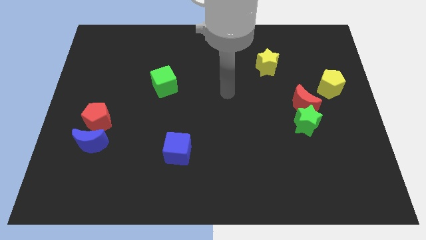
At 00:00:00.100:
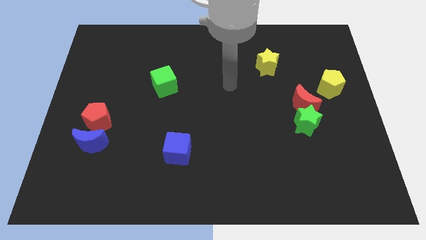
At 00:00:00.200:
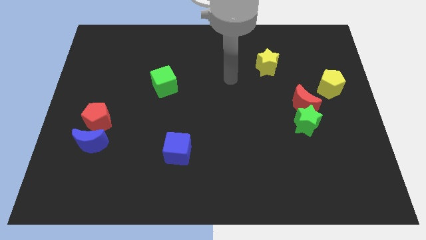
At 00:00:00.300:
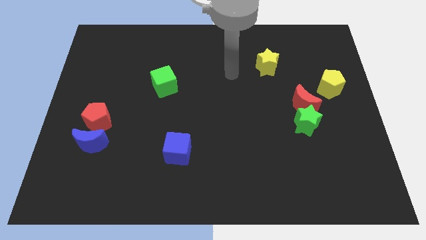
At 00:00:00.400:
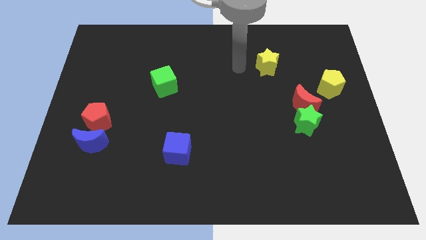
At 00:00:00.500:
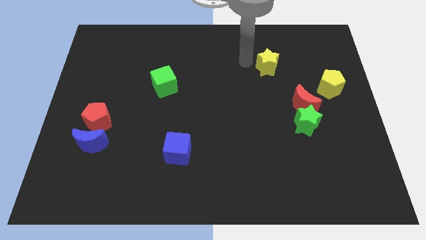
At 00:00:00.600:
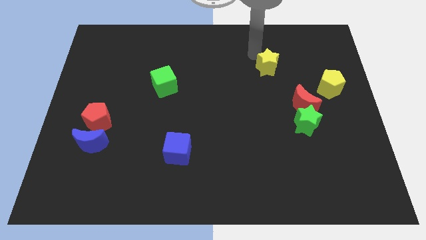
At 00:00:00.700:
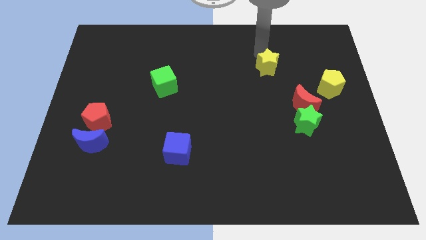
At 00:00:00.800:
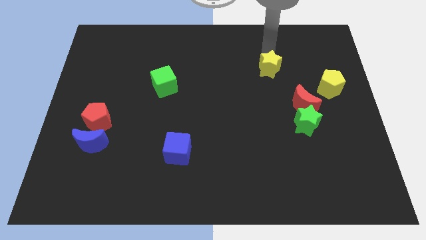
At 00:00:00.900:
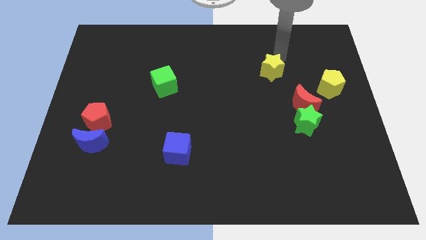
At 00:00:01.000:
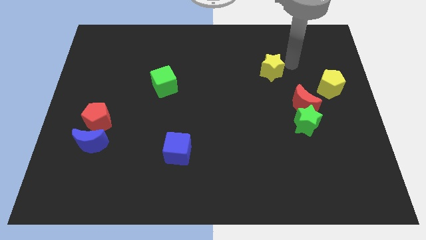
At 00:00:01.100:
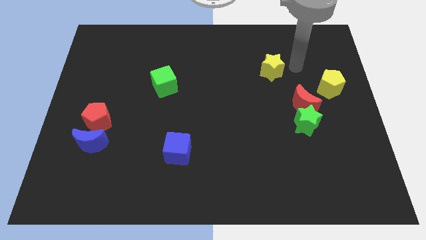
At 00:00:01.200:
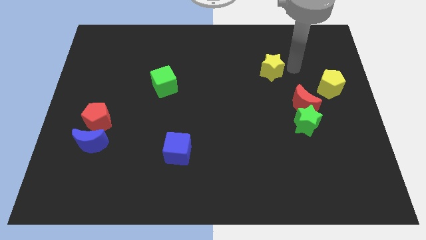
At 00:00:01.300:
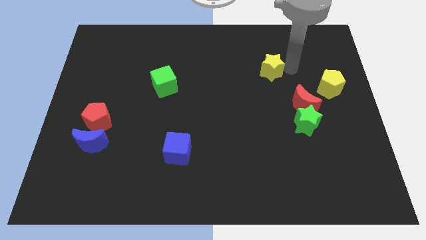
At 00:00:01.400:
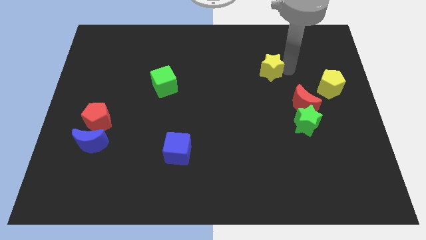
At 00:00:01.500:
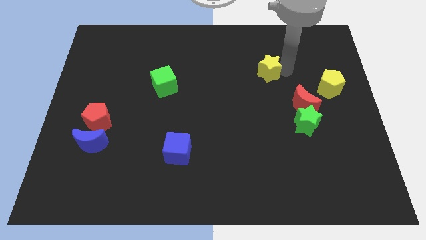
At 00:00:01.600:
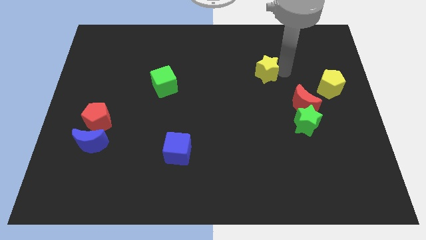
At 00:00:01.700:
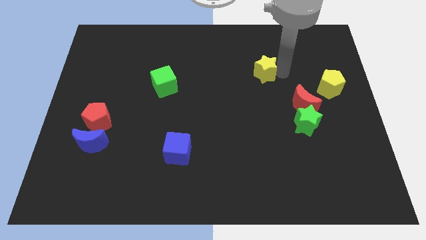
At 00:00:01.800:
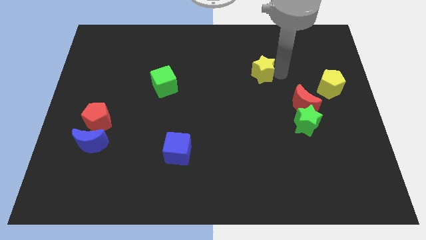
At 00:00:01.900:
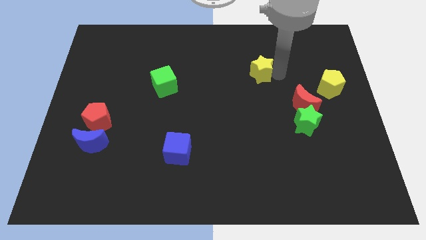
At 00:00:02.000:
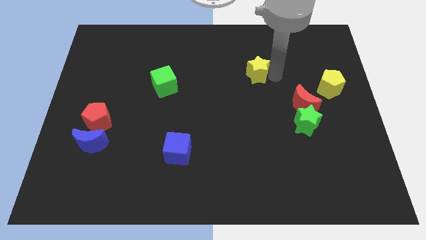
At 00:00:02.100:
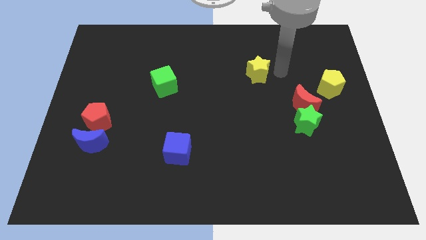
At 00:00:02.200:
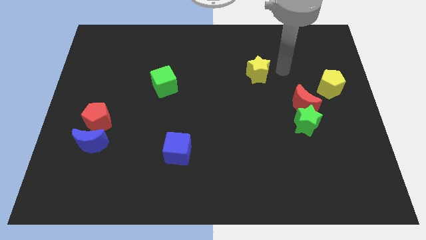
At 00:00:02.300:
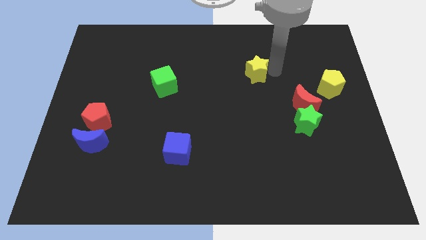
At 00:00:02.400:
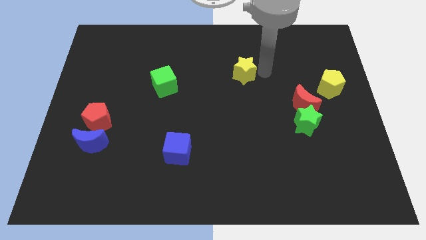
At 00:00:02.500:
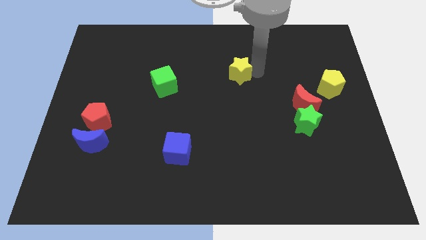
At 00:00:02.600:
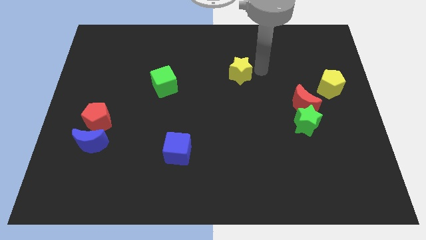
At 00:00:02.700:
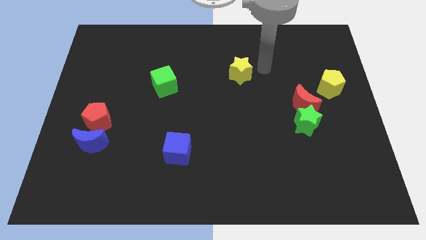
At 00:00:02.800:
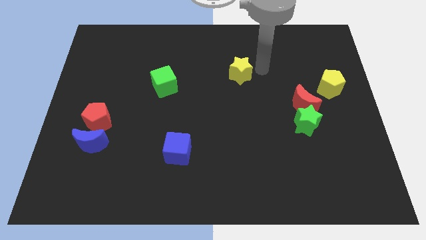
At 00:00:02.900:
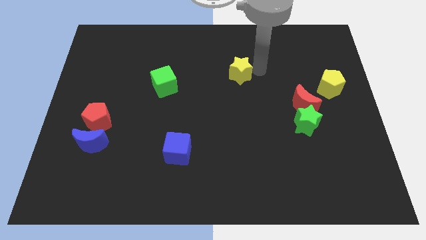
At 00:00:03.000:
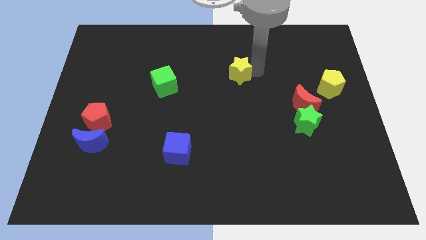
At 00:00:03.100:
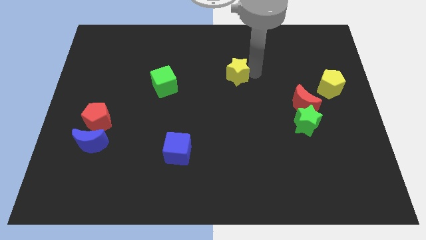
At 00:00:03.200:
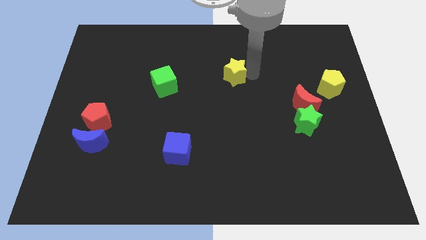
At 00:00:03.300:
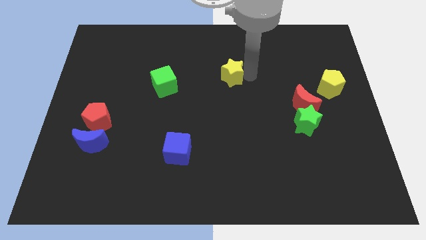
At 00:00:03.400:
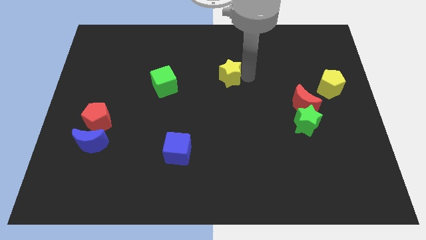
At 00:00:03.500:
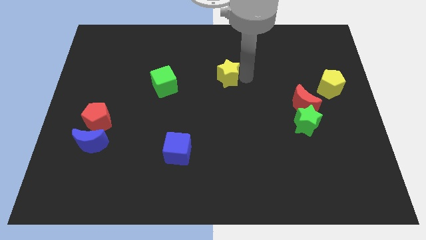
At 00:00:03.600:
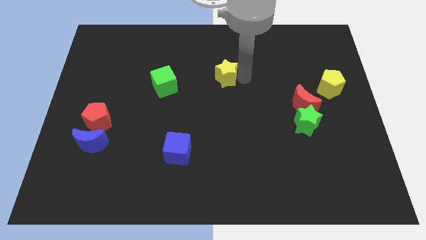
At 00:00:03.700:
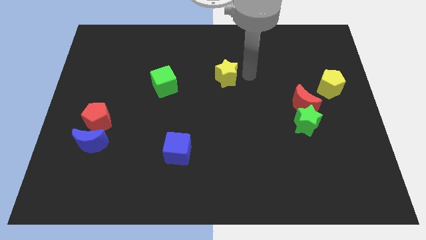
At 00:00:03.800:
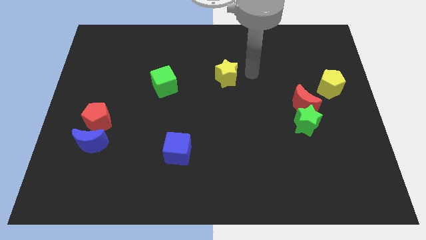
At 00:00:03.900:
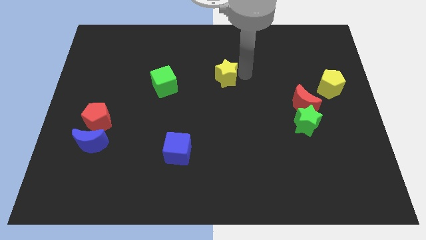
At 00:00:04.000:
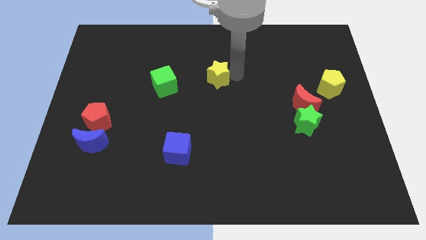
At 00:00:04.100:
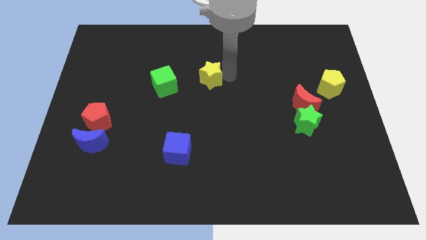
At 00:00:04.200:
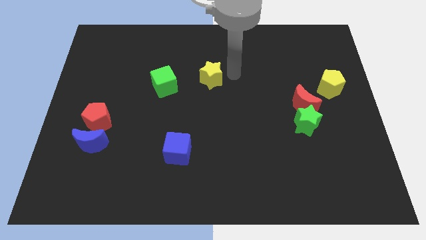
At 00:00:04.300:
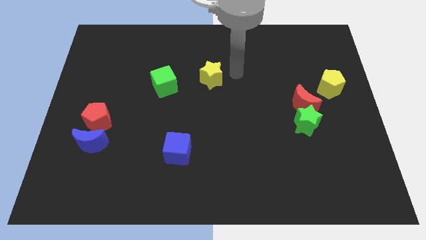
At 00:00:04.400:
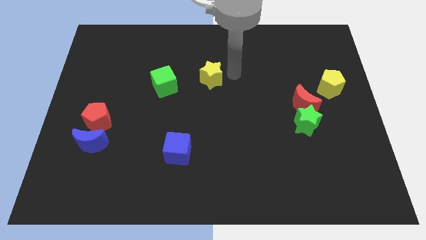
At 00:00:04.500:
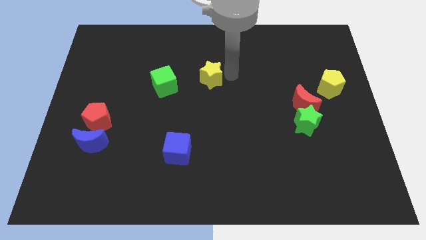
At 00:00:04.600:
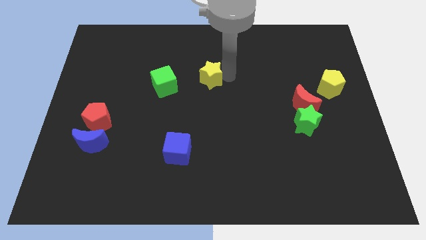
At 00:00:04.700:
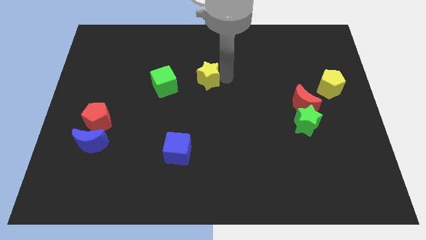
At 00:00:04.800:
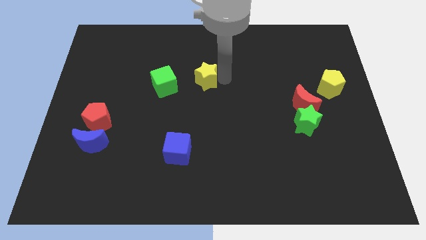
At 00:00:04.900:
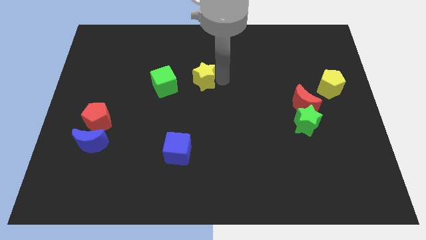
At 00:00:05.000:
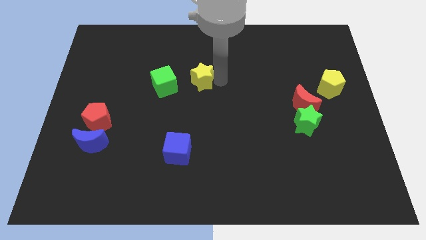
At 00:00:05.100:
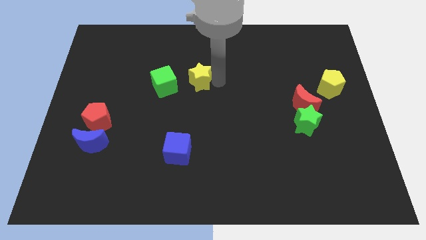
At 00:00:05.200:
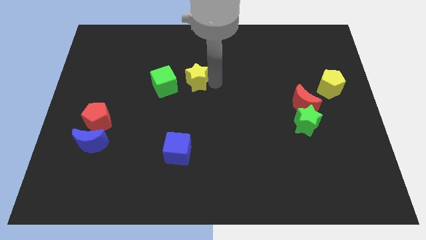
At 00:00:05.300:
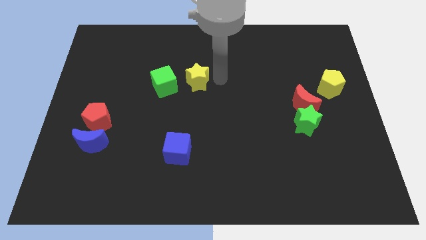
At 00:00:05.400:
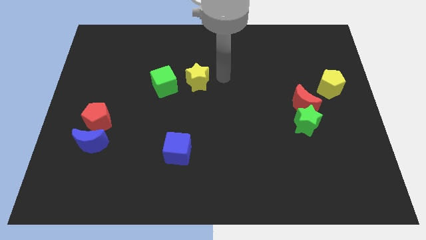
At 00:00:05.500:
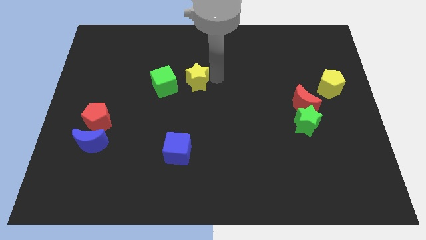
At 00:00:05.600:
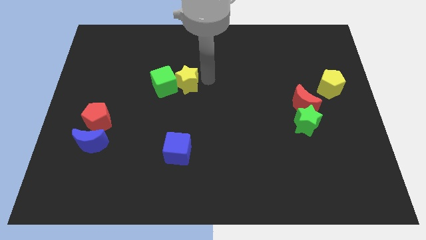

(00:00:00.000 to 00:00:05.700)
put the yellow star close to the green cube

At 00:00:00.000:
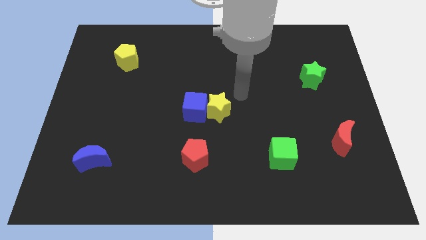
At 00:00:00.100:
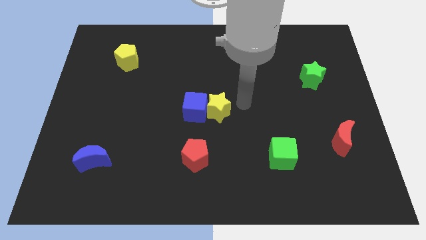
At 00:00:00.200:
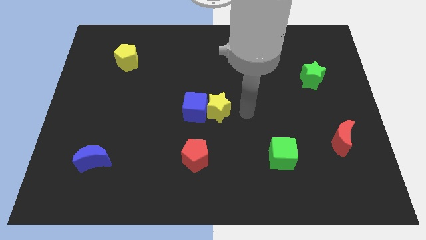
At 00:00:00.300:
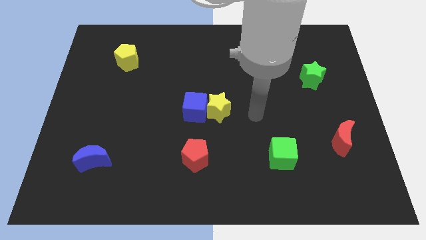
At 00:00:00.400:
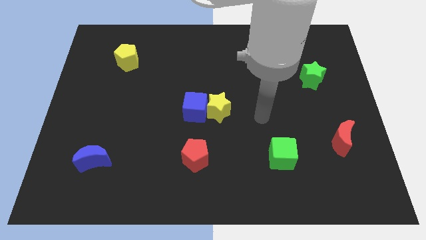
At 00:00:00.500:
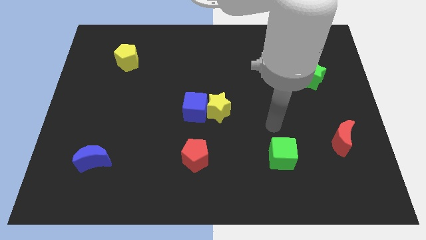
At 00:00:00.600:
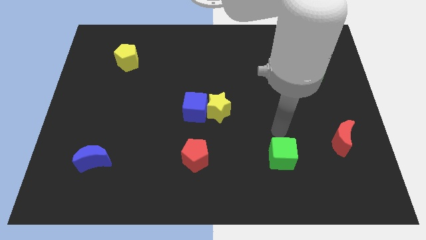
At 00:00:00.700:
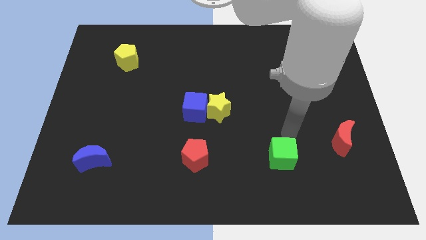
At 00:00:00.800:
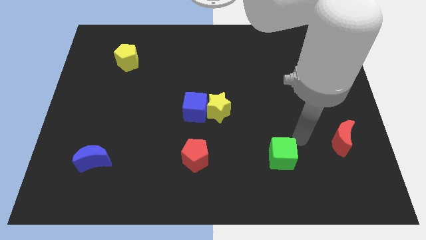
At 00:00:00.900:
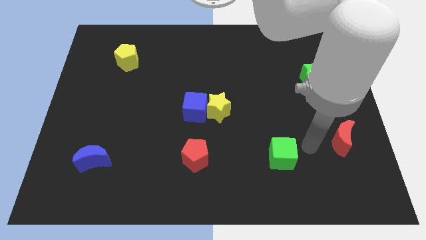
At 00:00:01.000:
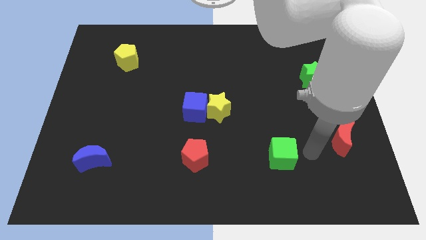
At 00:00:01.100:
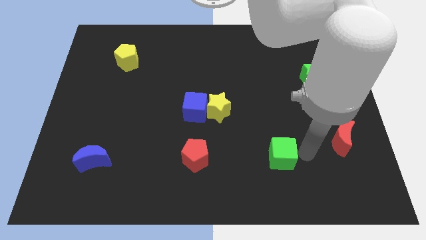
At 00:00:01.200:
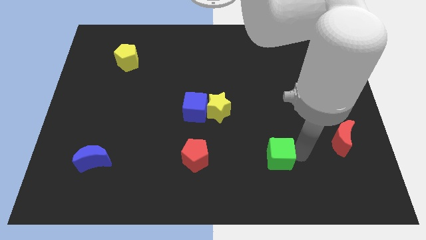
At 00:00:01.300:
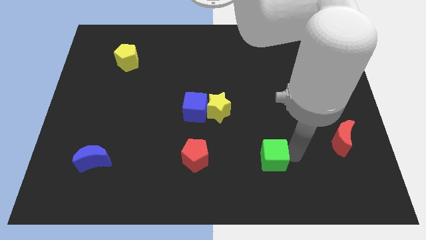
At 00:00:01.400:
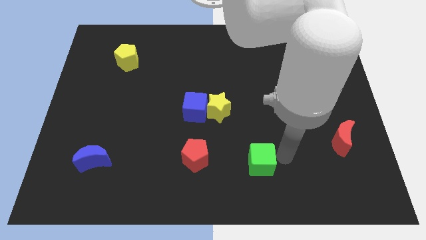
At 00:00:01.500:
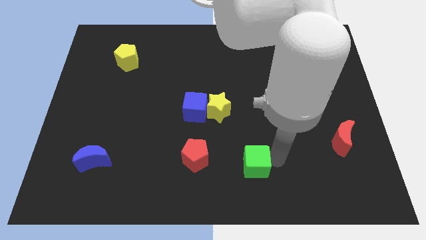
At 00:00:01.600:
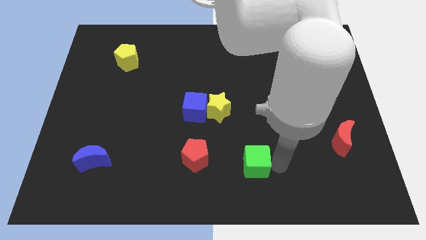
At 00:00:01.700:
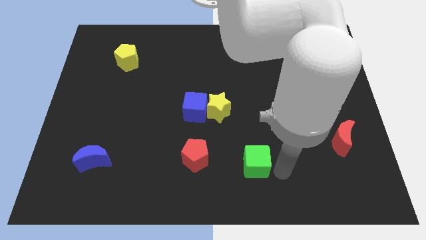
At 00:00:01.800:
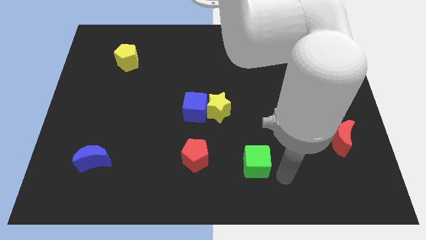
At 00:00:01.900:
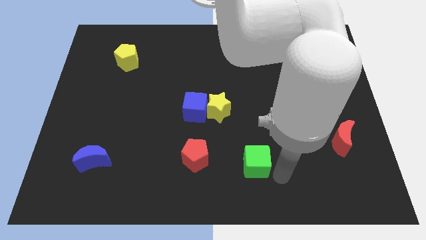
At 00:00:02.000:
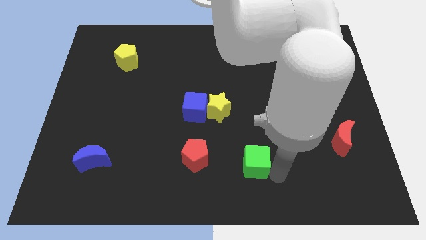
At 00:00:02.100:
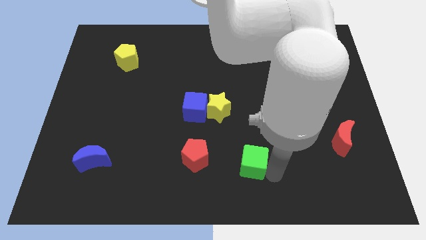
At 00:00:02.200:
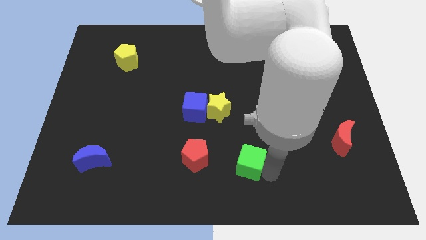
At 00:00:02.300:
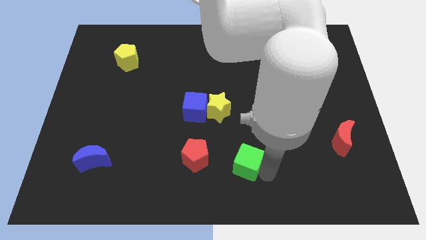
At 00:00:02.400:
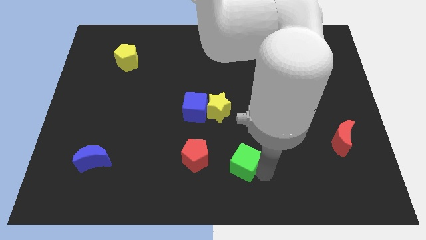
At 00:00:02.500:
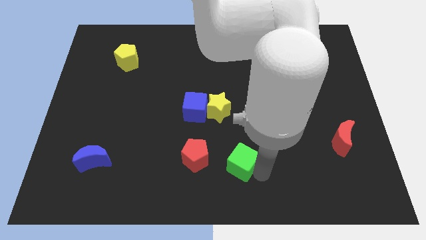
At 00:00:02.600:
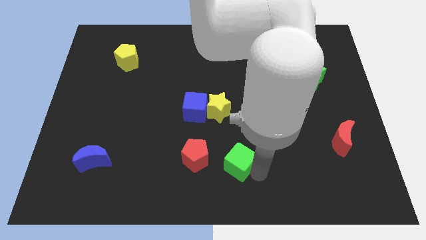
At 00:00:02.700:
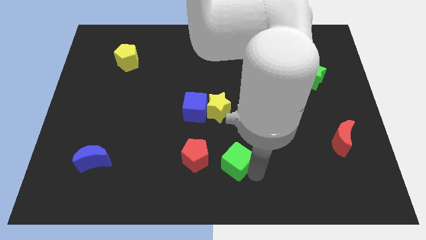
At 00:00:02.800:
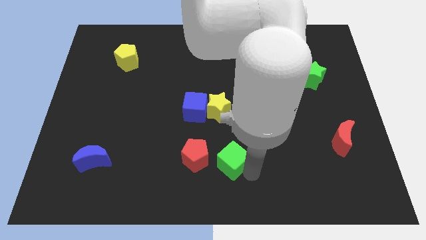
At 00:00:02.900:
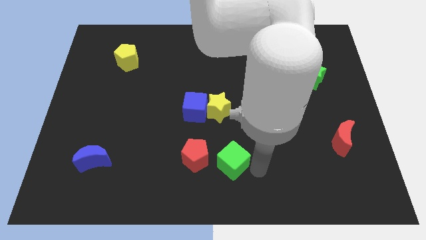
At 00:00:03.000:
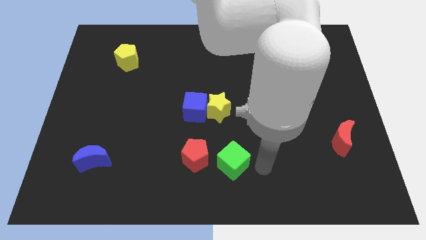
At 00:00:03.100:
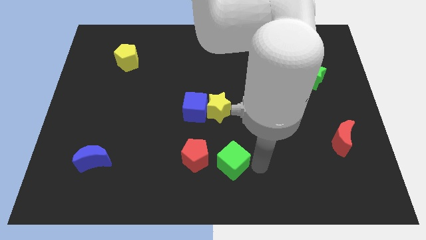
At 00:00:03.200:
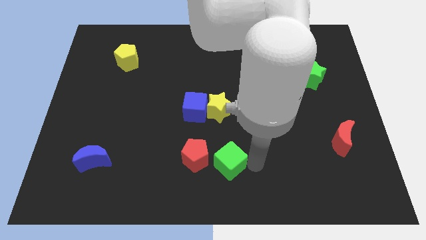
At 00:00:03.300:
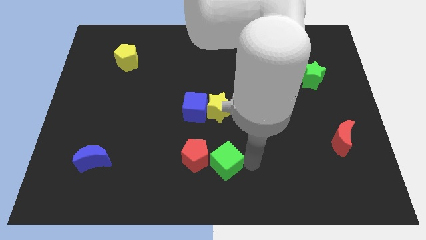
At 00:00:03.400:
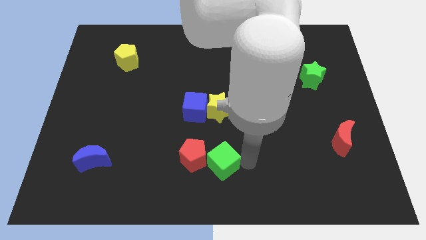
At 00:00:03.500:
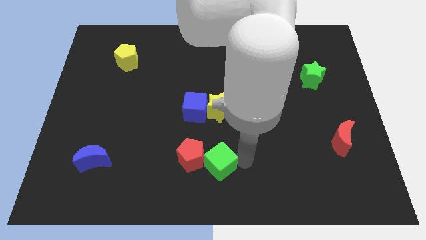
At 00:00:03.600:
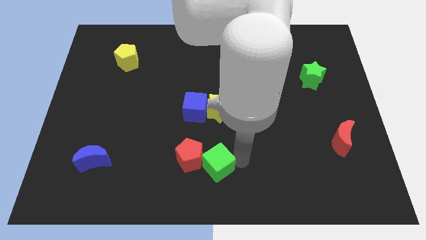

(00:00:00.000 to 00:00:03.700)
push the green cube towards the red pentagon
